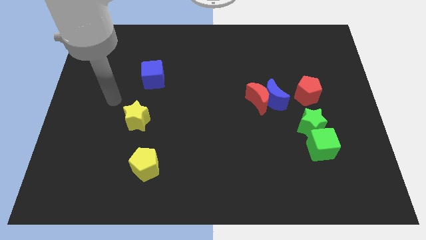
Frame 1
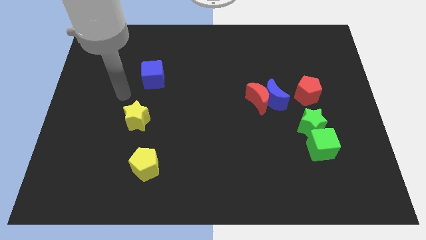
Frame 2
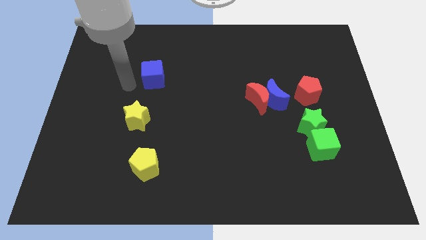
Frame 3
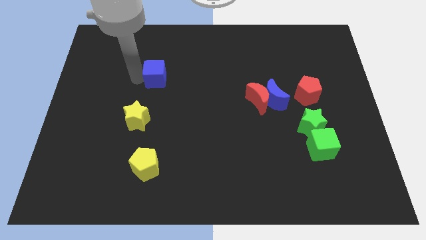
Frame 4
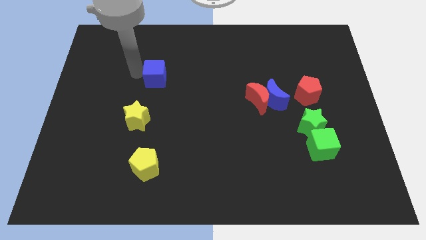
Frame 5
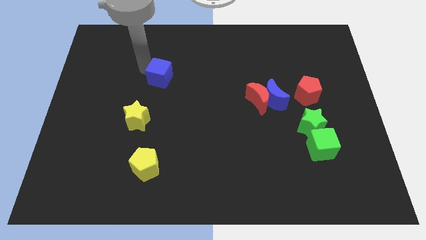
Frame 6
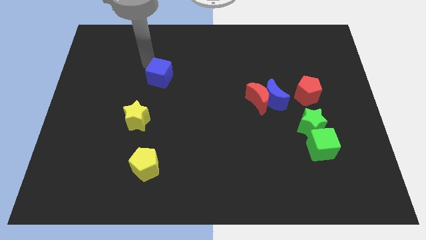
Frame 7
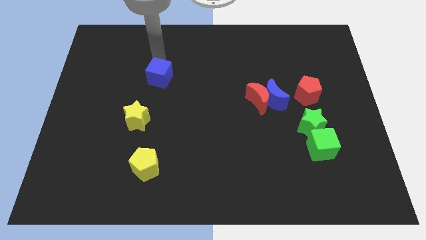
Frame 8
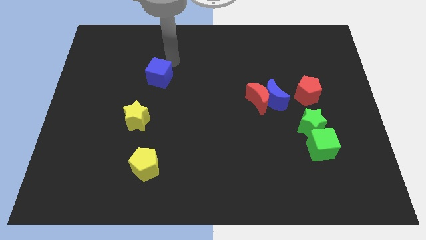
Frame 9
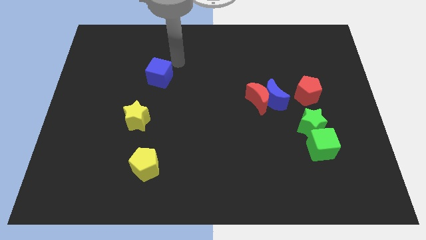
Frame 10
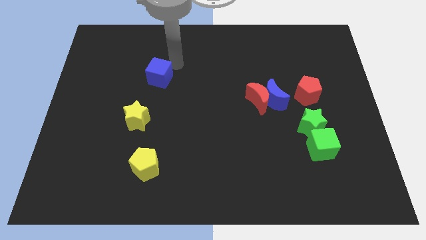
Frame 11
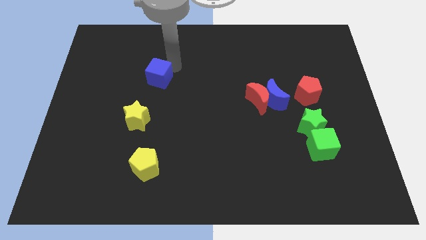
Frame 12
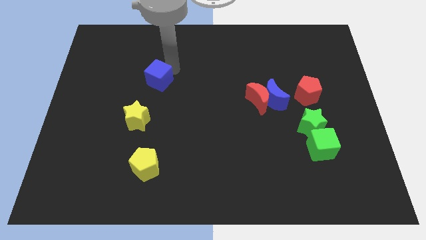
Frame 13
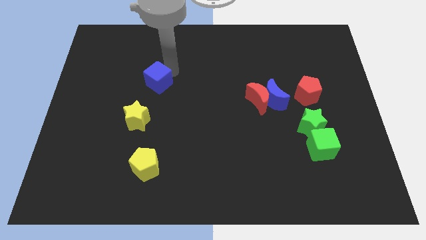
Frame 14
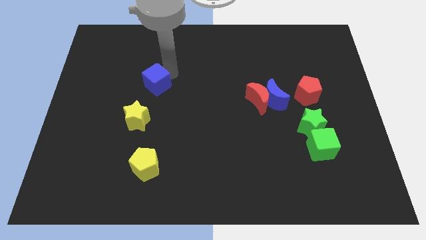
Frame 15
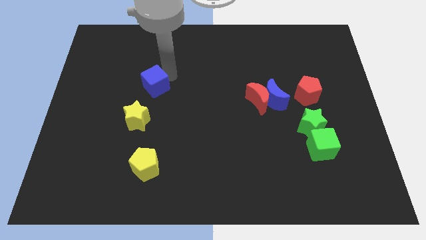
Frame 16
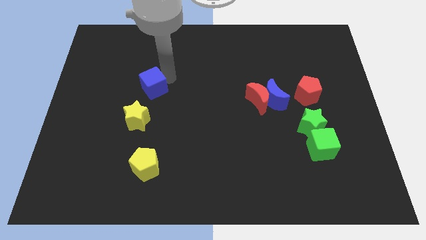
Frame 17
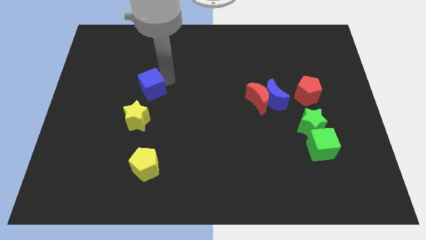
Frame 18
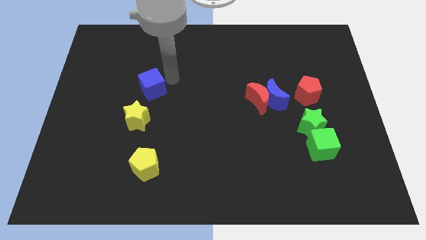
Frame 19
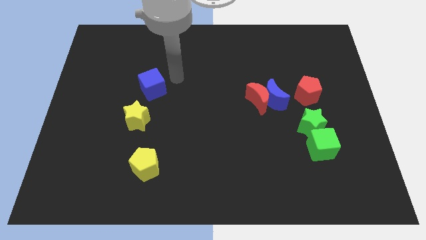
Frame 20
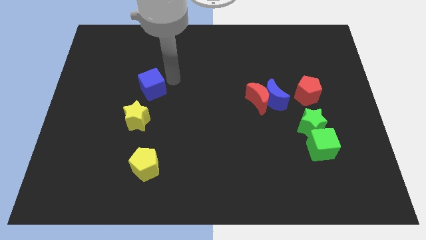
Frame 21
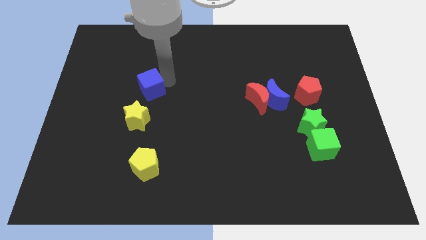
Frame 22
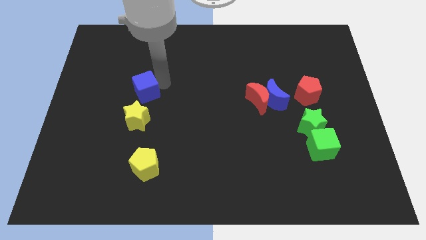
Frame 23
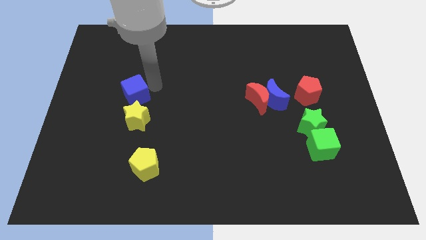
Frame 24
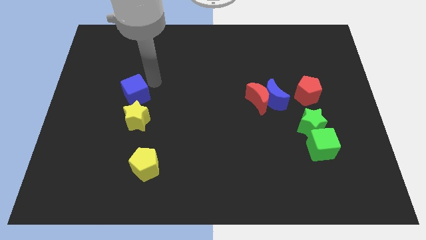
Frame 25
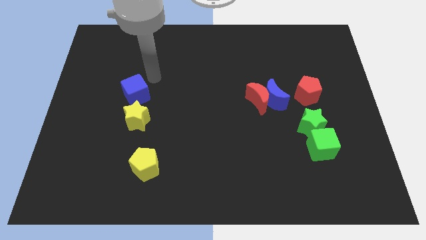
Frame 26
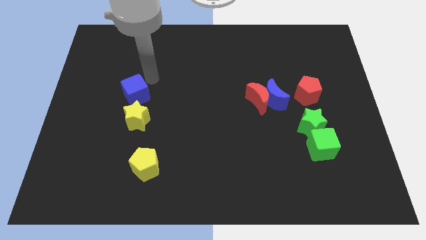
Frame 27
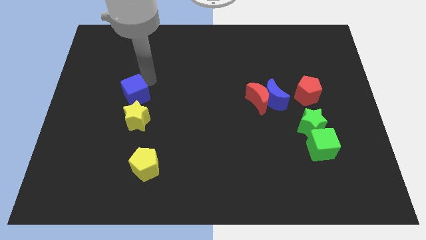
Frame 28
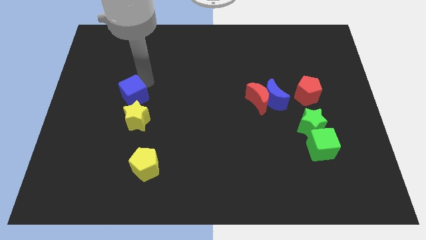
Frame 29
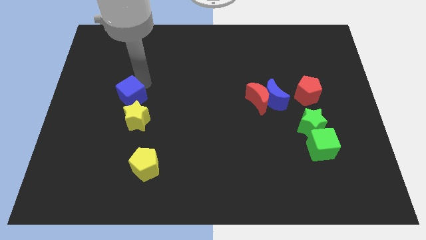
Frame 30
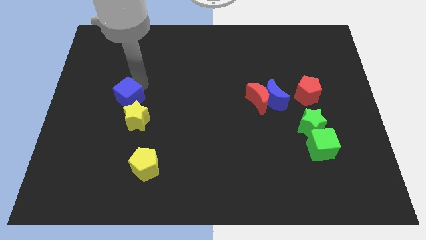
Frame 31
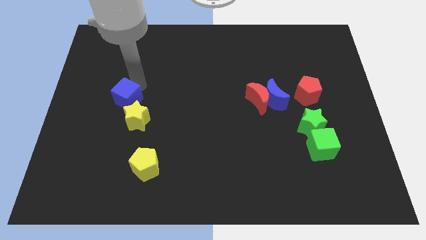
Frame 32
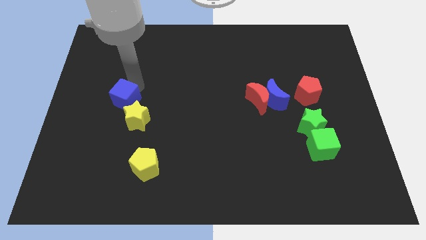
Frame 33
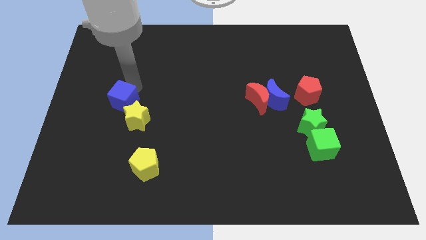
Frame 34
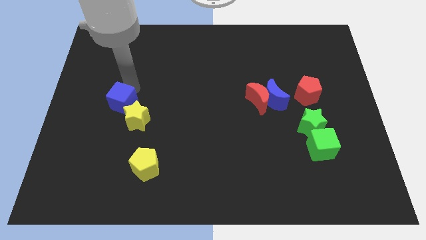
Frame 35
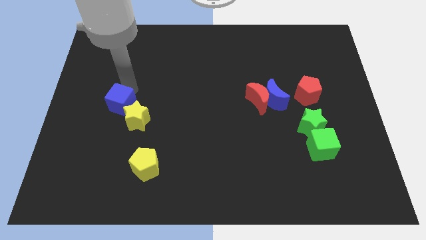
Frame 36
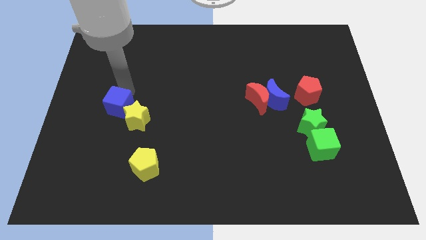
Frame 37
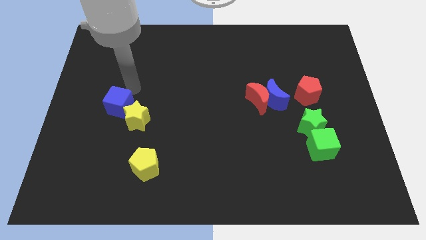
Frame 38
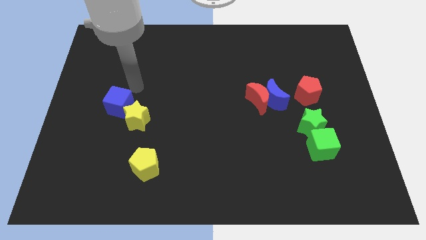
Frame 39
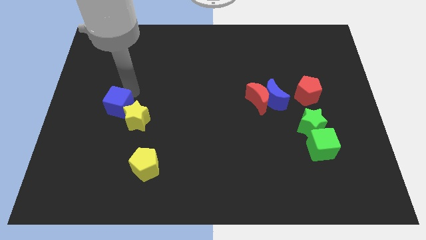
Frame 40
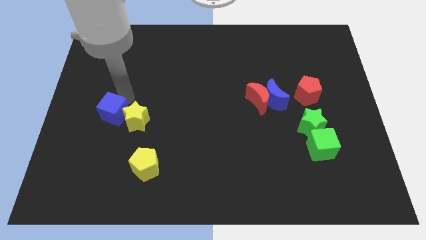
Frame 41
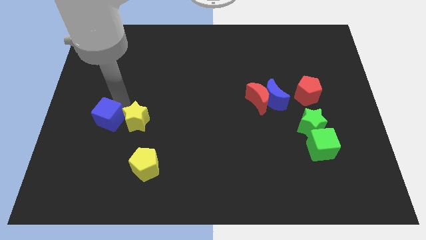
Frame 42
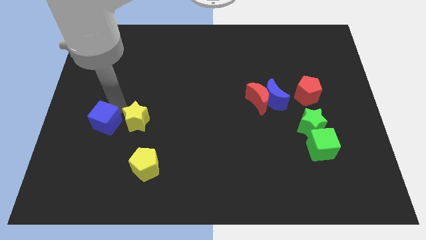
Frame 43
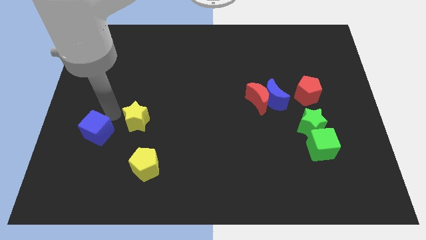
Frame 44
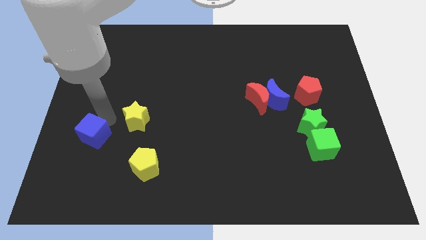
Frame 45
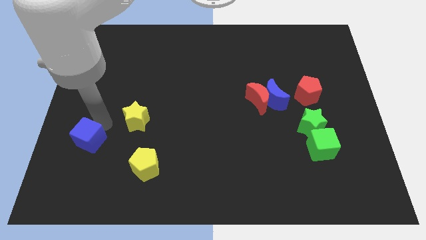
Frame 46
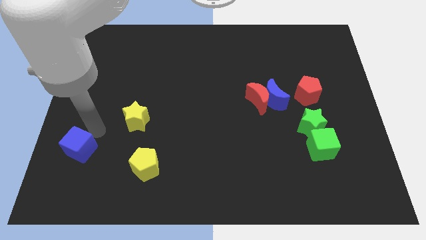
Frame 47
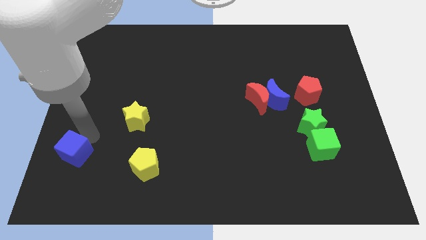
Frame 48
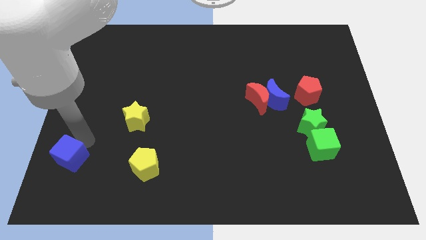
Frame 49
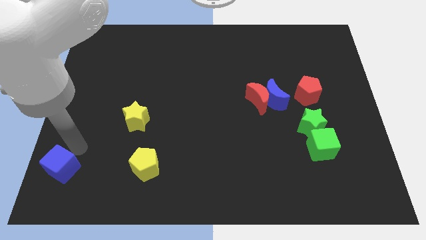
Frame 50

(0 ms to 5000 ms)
slide the blue cube to the bottom left of the board

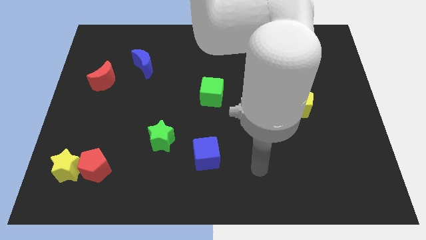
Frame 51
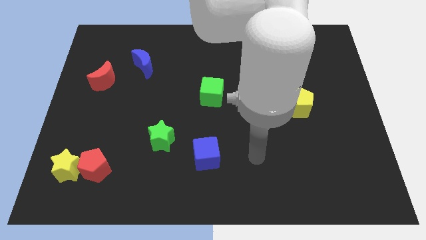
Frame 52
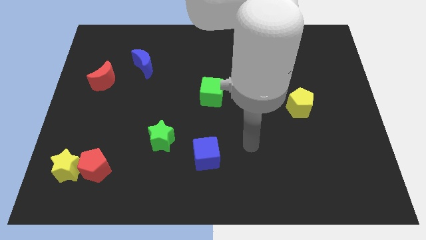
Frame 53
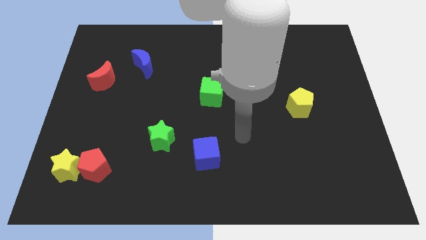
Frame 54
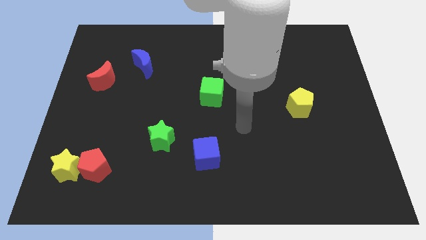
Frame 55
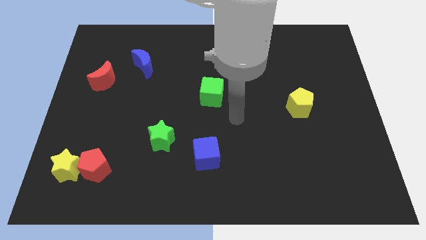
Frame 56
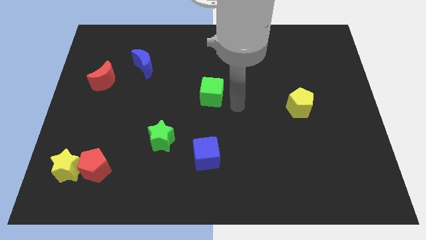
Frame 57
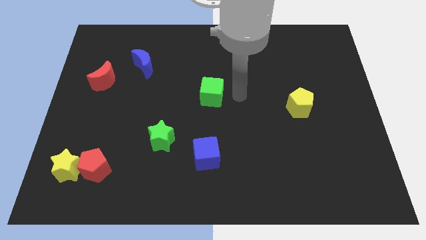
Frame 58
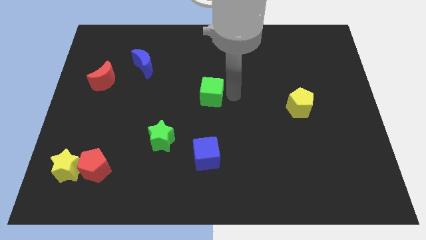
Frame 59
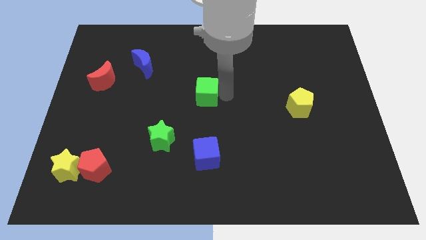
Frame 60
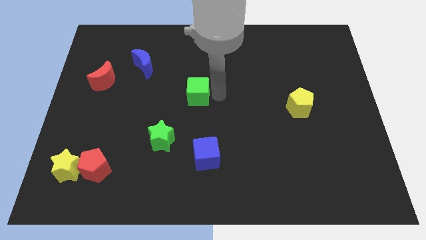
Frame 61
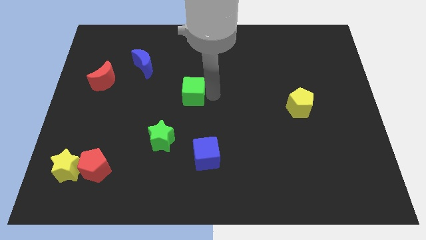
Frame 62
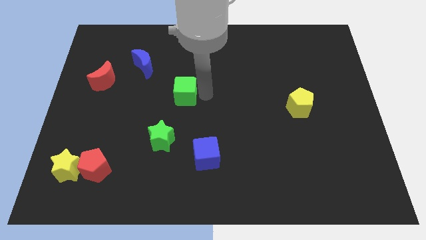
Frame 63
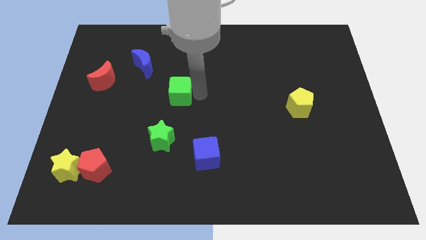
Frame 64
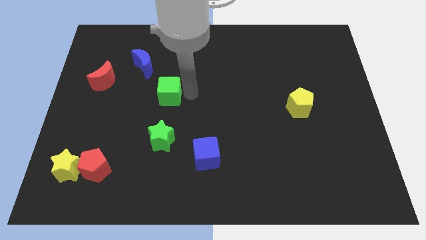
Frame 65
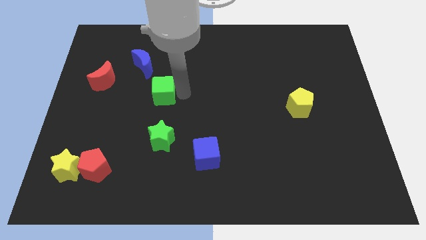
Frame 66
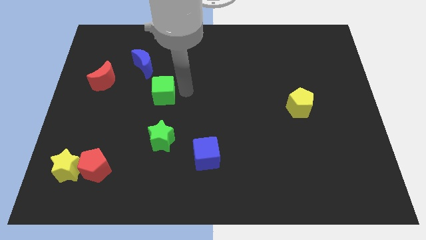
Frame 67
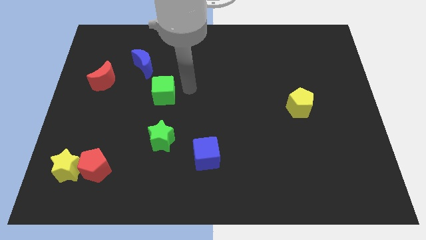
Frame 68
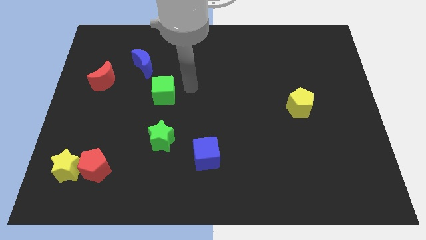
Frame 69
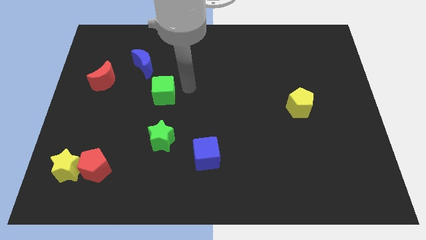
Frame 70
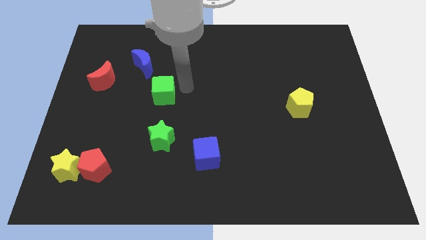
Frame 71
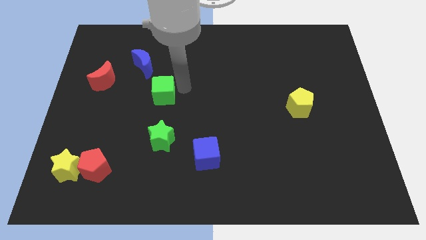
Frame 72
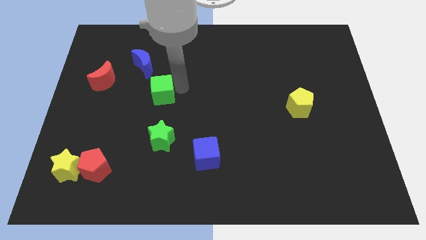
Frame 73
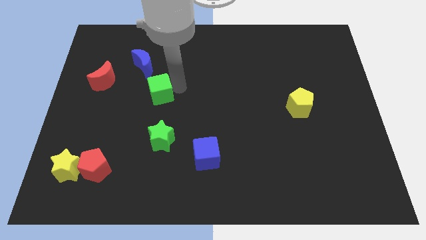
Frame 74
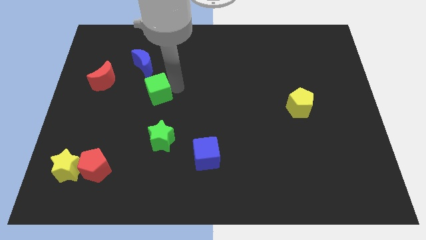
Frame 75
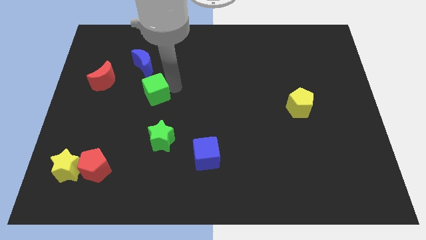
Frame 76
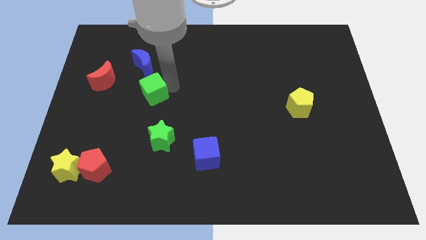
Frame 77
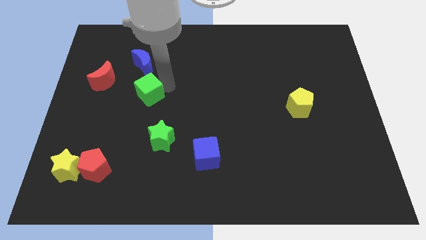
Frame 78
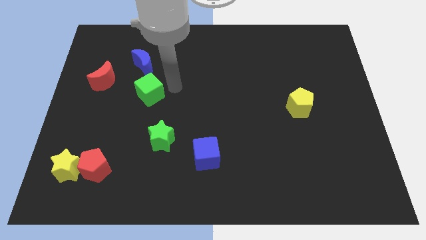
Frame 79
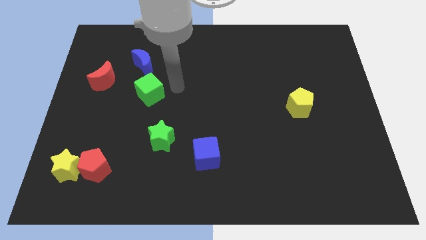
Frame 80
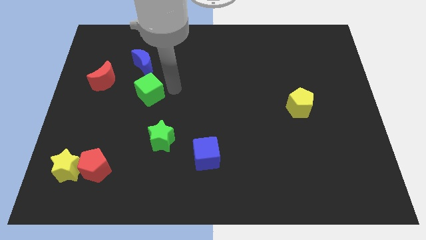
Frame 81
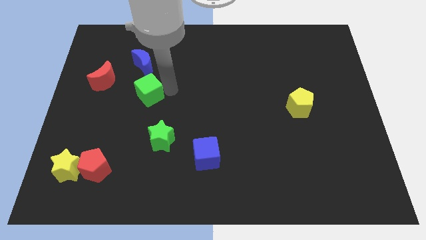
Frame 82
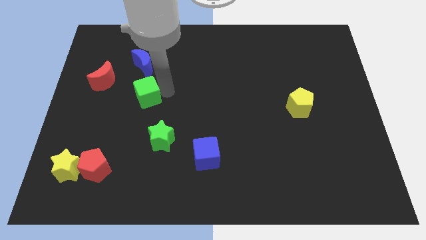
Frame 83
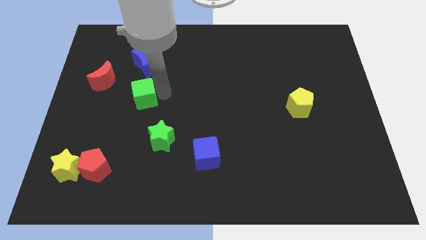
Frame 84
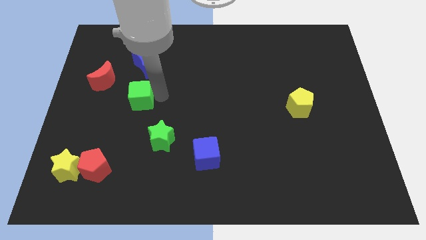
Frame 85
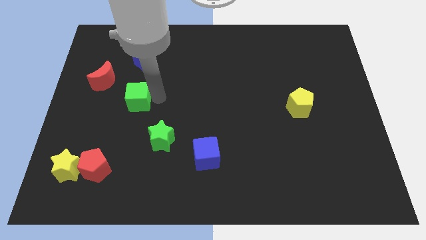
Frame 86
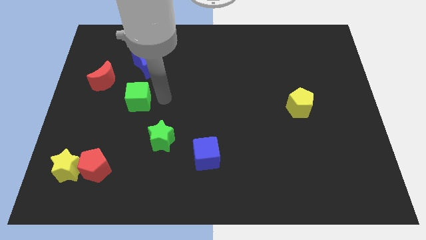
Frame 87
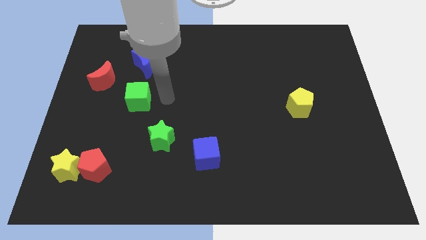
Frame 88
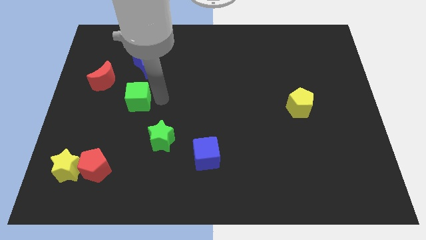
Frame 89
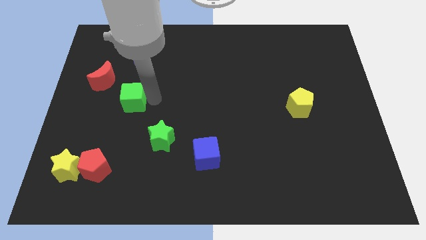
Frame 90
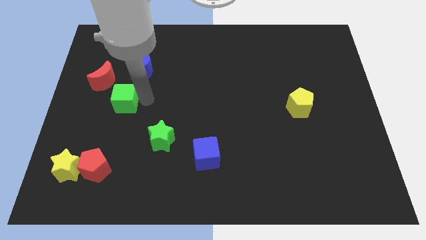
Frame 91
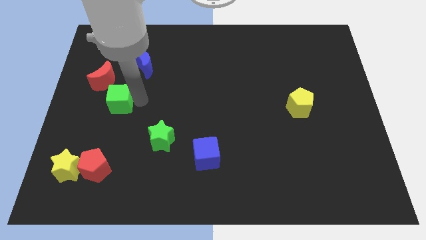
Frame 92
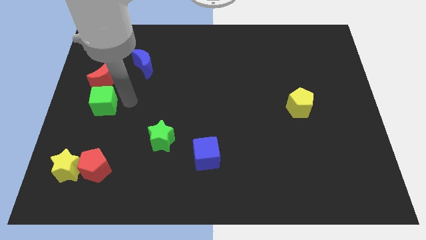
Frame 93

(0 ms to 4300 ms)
push the green cube to the center left
